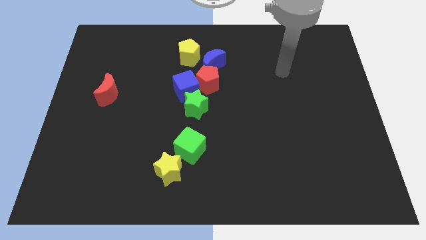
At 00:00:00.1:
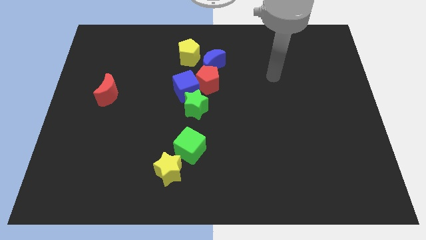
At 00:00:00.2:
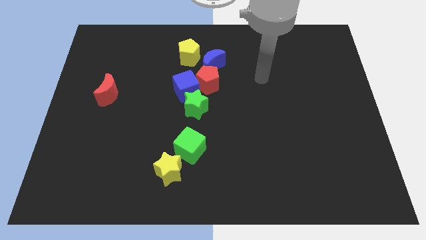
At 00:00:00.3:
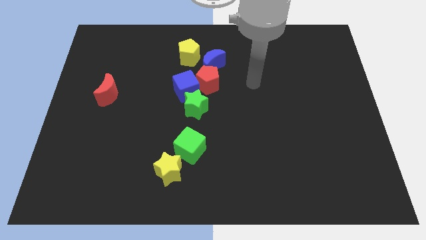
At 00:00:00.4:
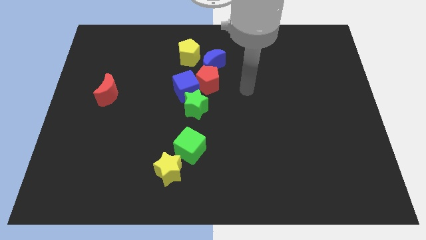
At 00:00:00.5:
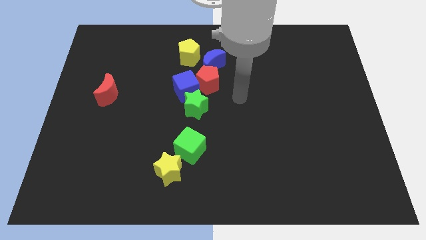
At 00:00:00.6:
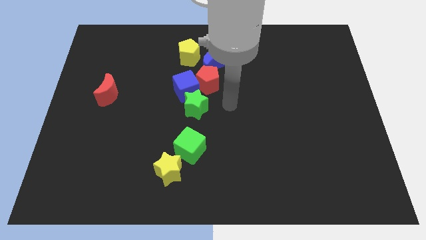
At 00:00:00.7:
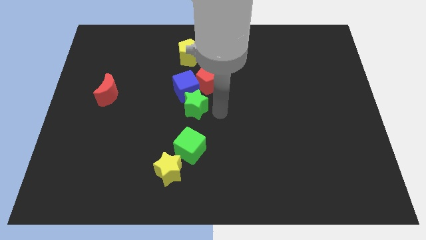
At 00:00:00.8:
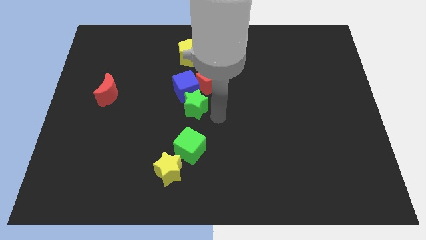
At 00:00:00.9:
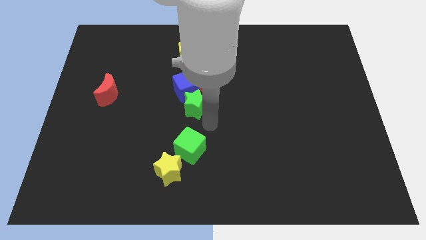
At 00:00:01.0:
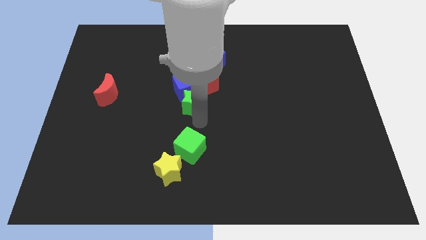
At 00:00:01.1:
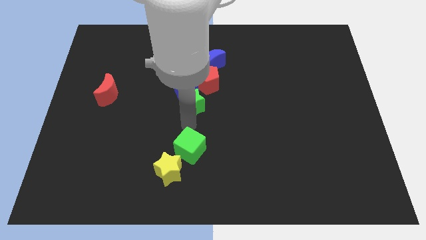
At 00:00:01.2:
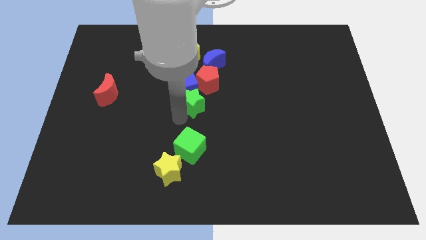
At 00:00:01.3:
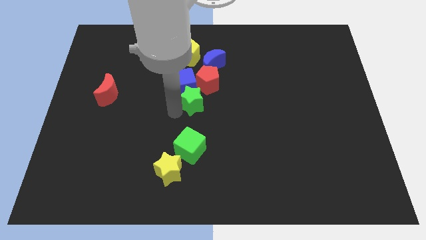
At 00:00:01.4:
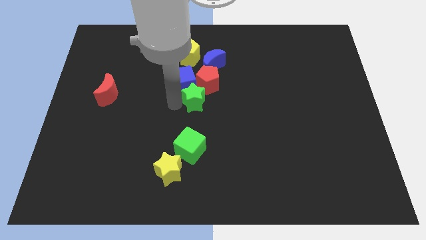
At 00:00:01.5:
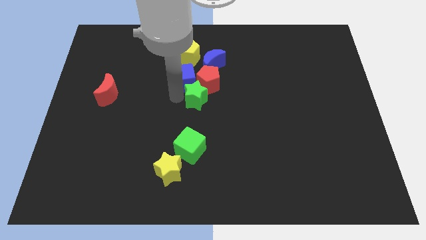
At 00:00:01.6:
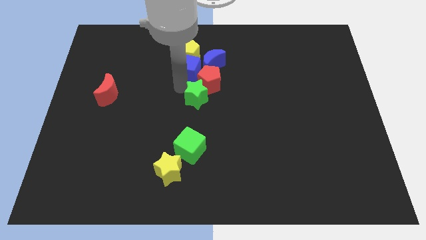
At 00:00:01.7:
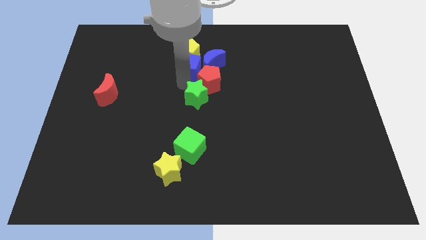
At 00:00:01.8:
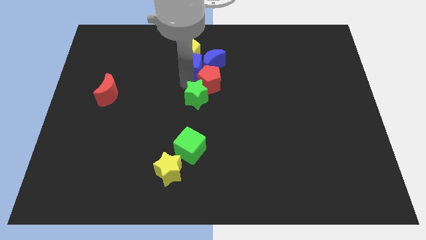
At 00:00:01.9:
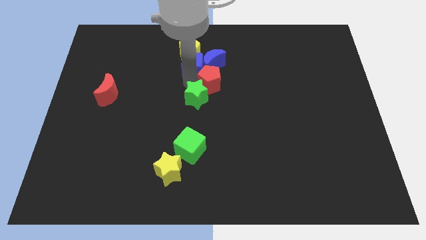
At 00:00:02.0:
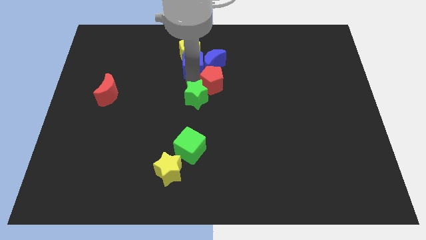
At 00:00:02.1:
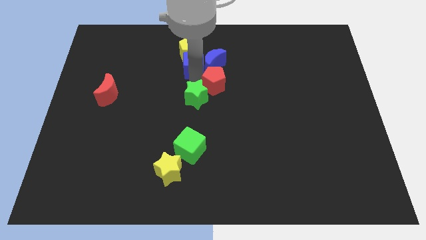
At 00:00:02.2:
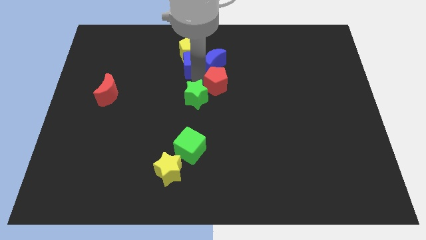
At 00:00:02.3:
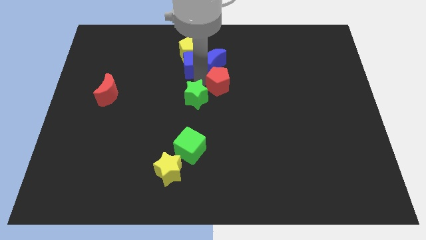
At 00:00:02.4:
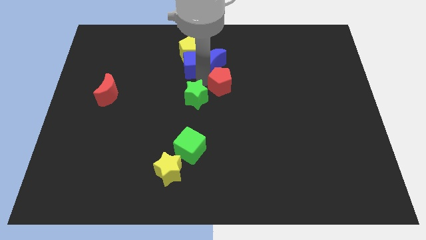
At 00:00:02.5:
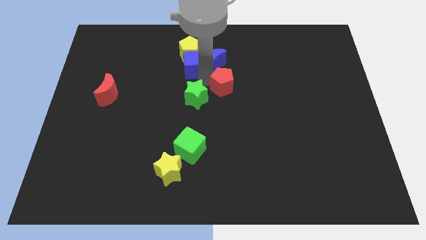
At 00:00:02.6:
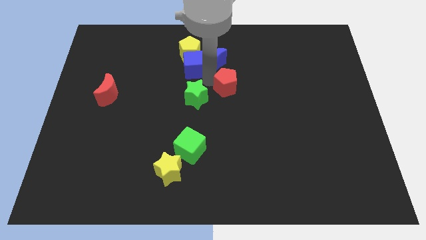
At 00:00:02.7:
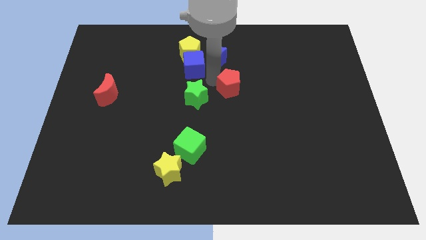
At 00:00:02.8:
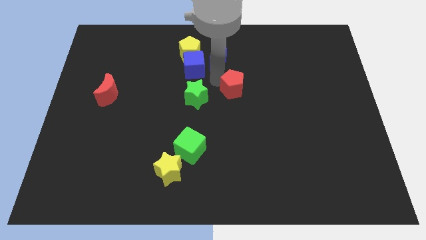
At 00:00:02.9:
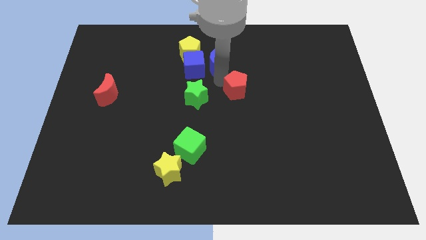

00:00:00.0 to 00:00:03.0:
slightly push the red pentagon to the right

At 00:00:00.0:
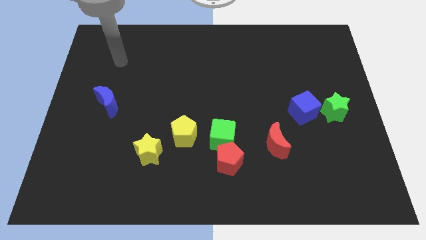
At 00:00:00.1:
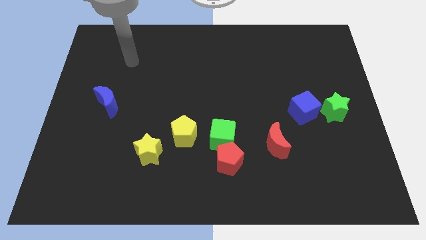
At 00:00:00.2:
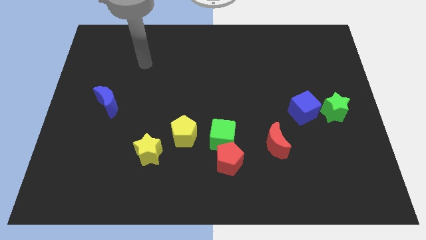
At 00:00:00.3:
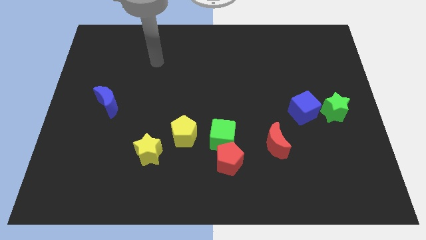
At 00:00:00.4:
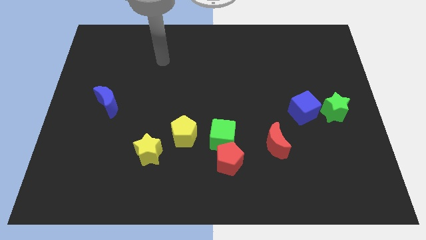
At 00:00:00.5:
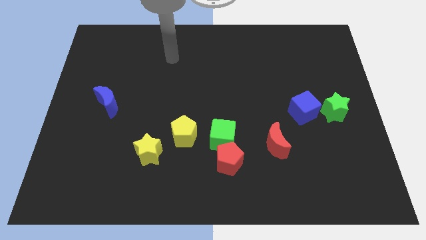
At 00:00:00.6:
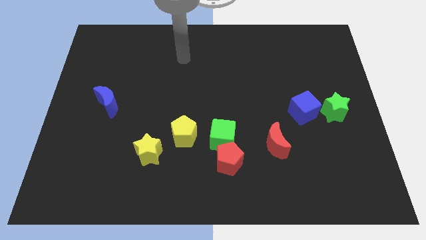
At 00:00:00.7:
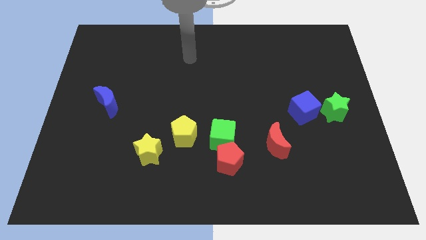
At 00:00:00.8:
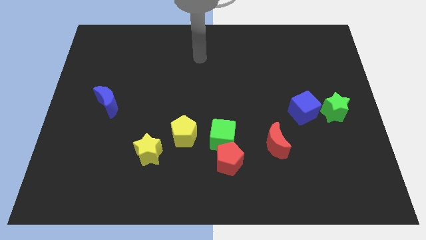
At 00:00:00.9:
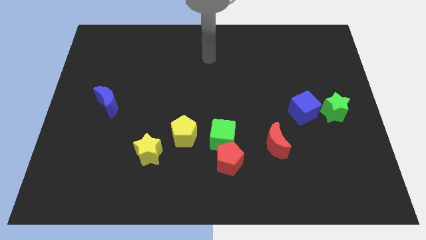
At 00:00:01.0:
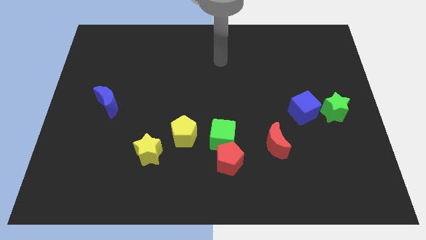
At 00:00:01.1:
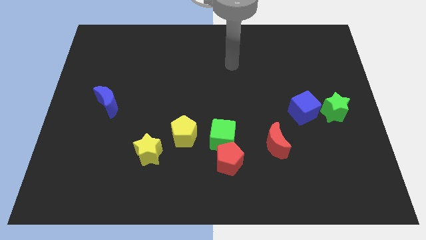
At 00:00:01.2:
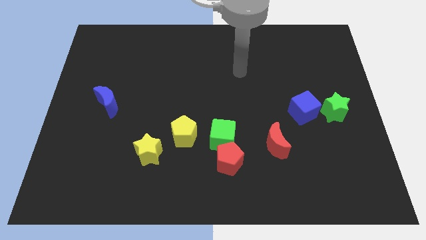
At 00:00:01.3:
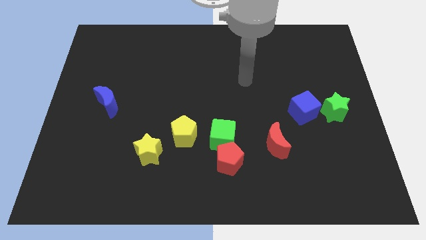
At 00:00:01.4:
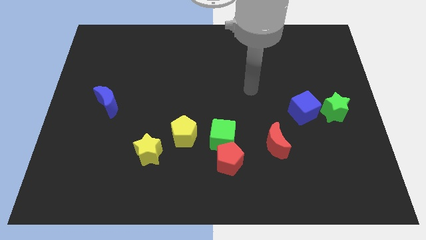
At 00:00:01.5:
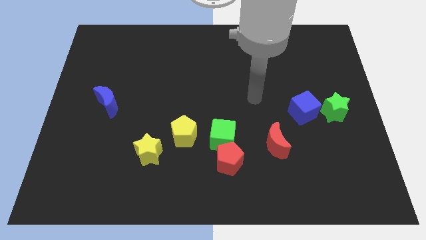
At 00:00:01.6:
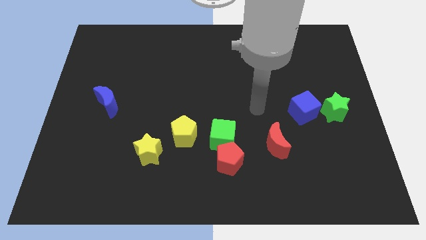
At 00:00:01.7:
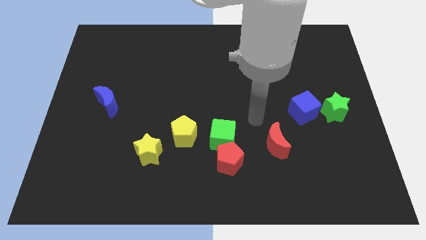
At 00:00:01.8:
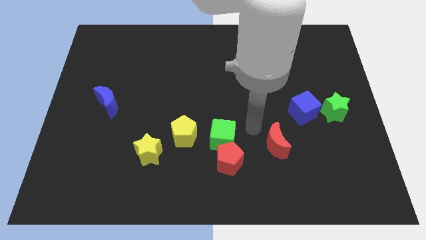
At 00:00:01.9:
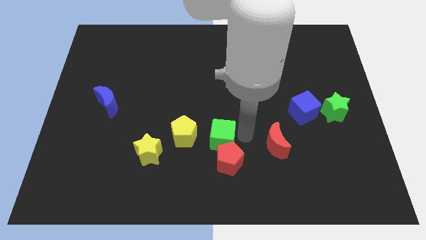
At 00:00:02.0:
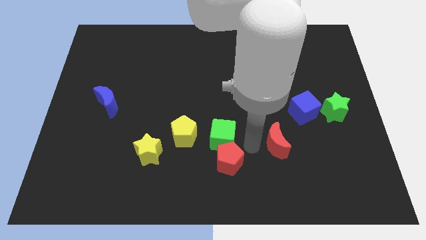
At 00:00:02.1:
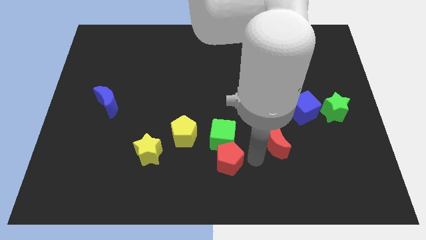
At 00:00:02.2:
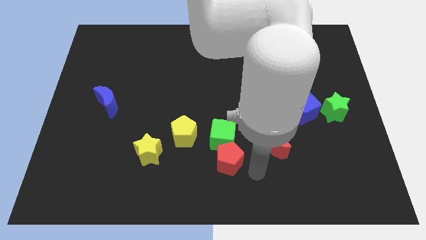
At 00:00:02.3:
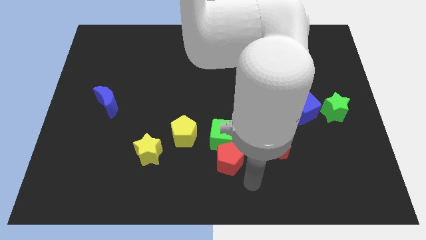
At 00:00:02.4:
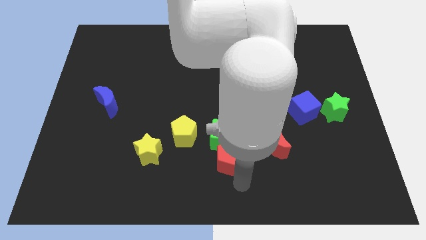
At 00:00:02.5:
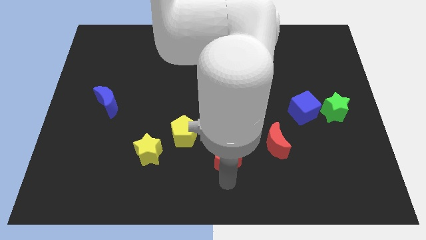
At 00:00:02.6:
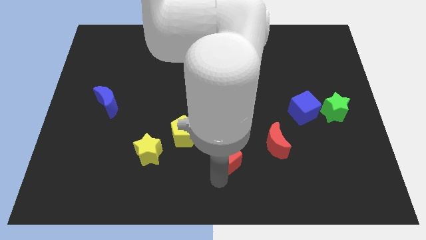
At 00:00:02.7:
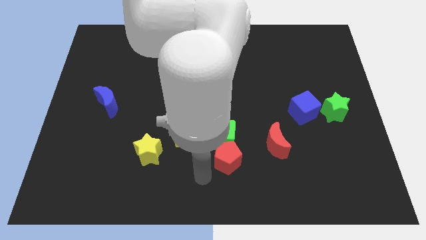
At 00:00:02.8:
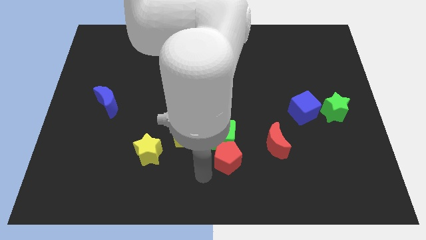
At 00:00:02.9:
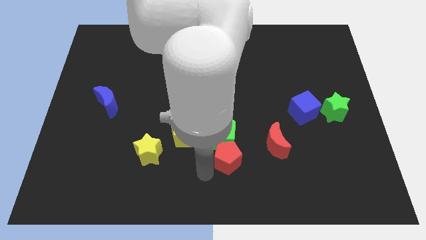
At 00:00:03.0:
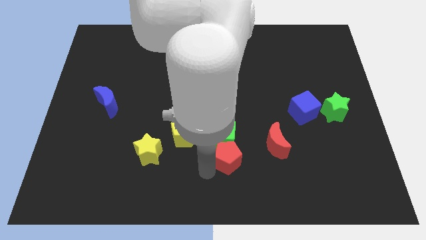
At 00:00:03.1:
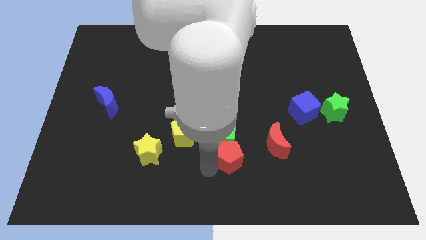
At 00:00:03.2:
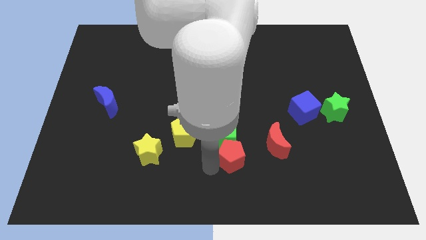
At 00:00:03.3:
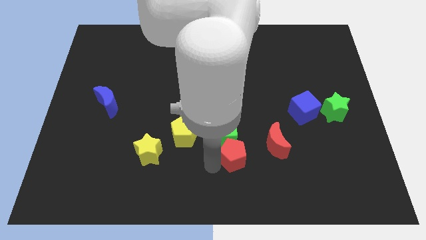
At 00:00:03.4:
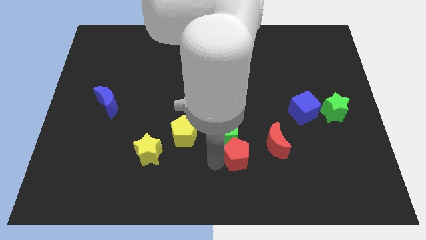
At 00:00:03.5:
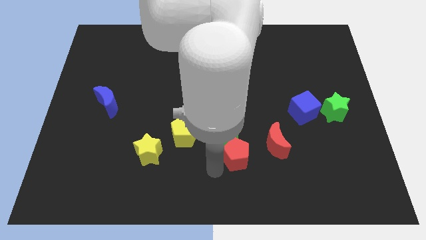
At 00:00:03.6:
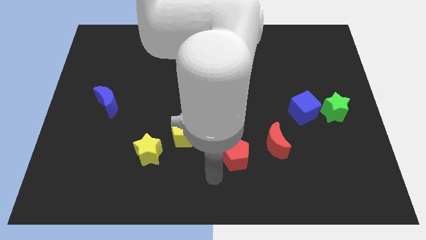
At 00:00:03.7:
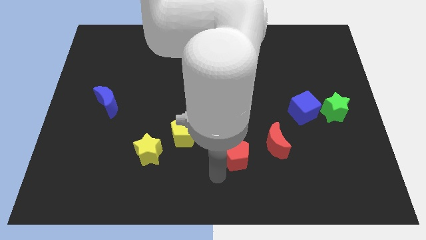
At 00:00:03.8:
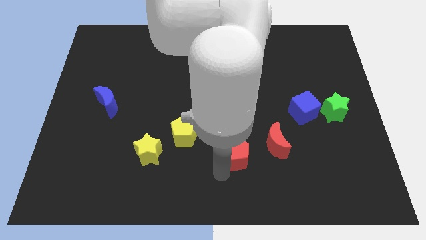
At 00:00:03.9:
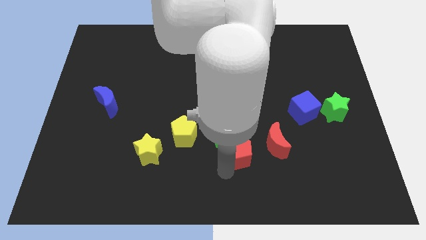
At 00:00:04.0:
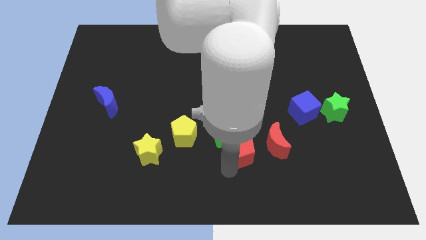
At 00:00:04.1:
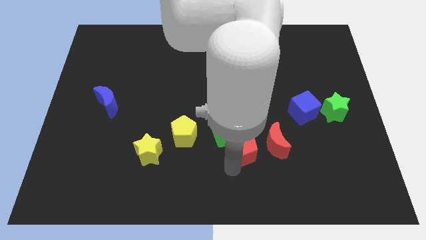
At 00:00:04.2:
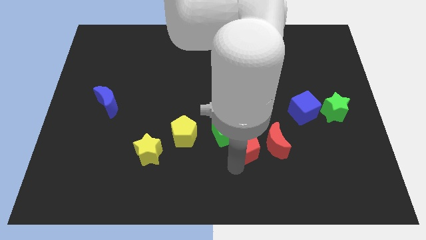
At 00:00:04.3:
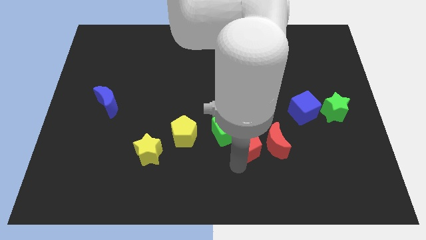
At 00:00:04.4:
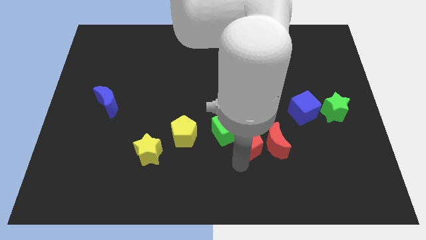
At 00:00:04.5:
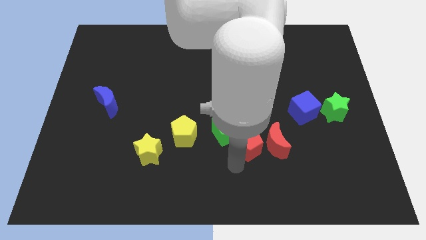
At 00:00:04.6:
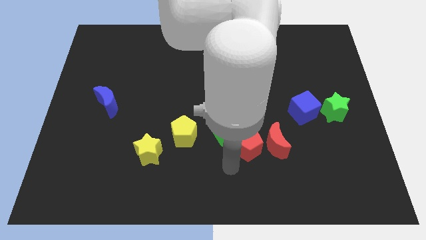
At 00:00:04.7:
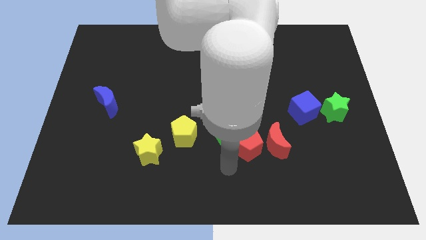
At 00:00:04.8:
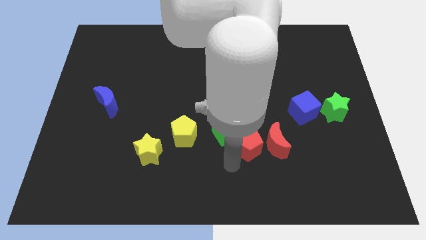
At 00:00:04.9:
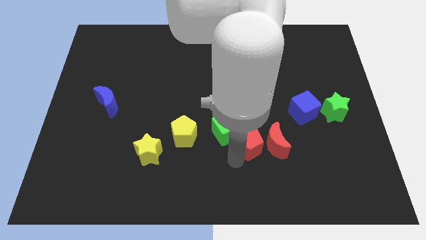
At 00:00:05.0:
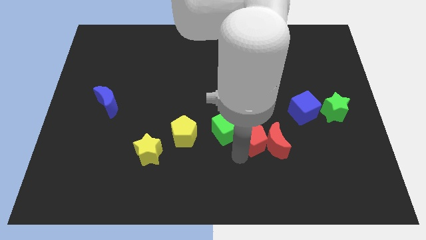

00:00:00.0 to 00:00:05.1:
push the red pentagon upwards and then to the right a bit

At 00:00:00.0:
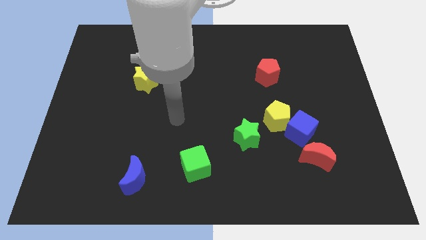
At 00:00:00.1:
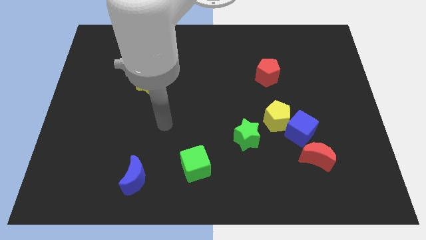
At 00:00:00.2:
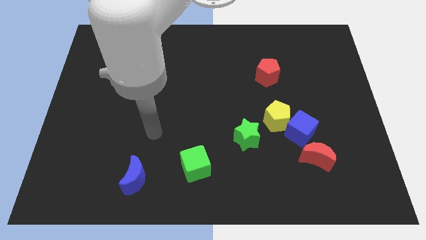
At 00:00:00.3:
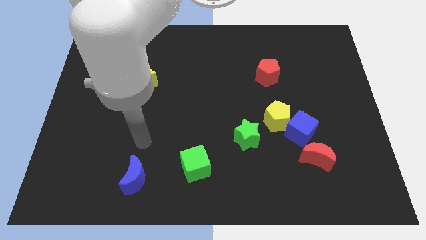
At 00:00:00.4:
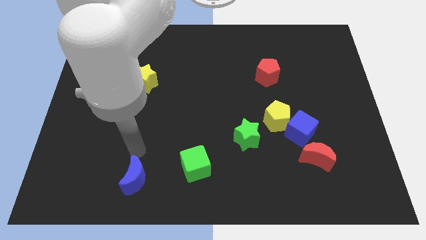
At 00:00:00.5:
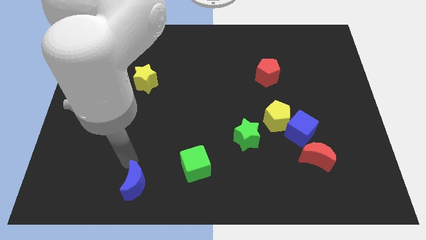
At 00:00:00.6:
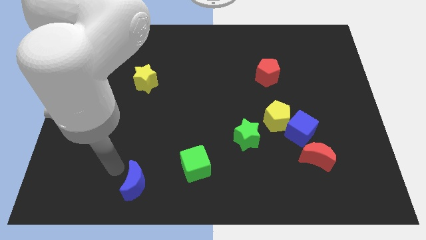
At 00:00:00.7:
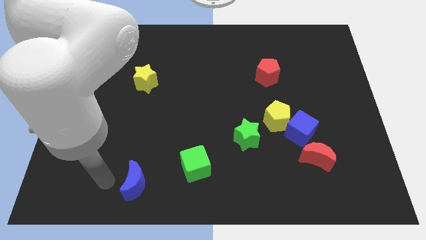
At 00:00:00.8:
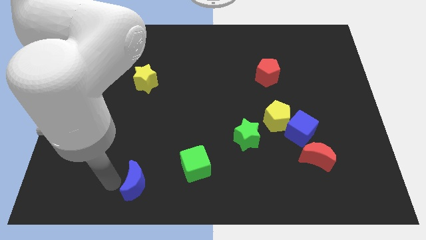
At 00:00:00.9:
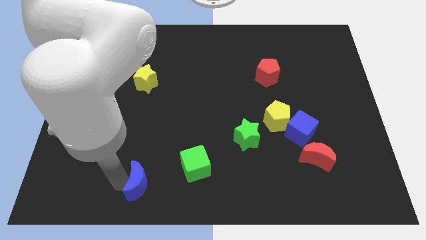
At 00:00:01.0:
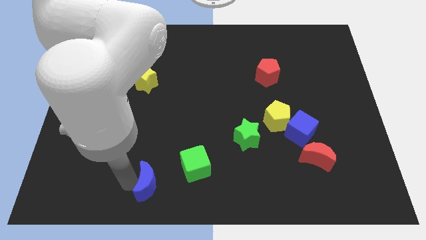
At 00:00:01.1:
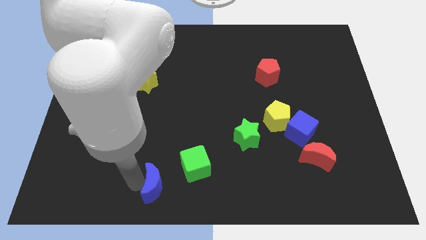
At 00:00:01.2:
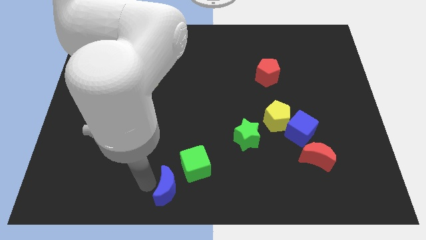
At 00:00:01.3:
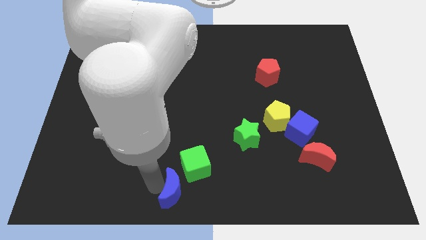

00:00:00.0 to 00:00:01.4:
slightly push the blue moon right
